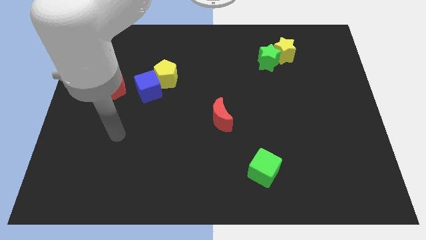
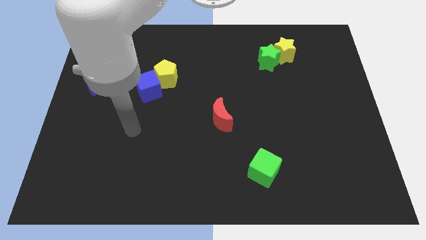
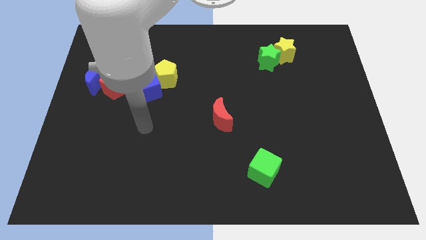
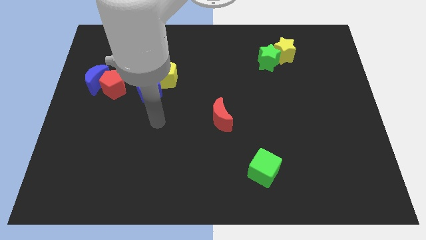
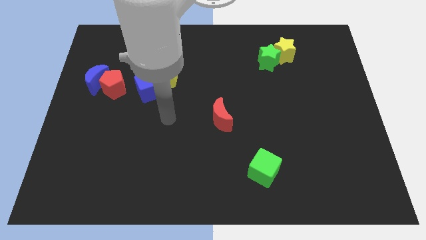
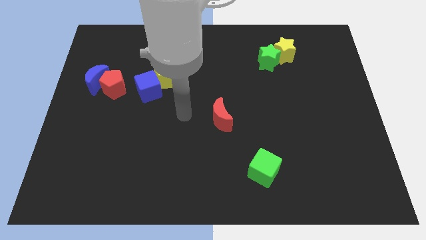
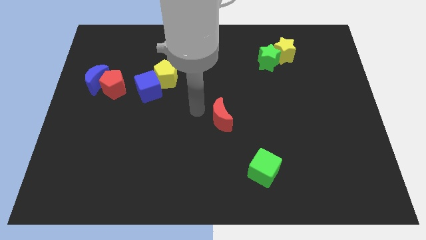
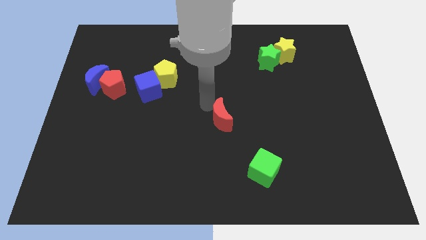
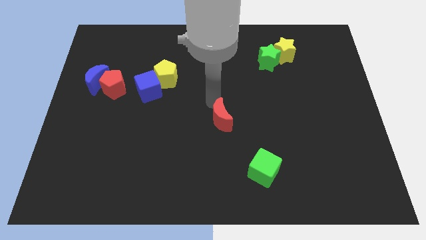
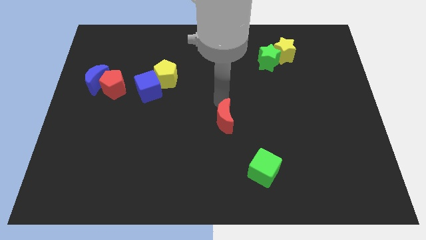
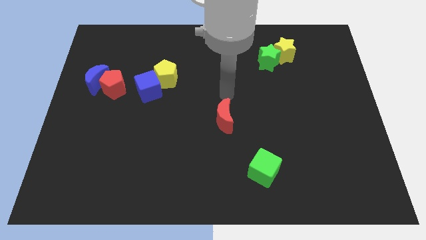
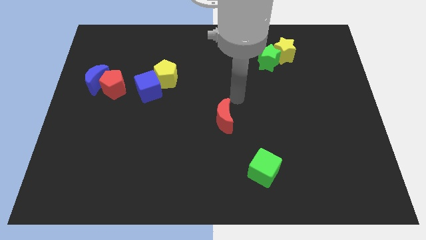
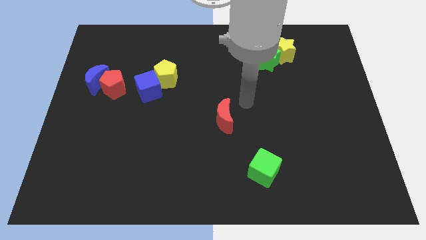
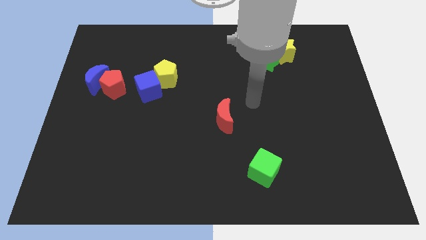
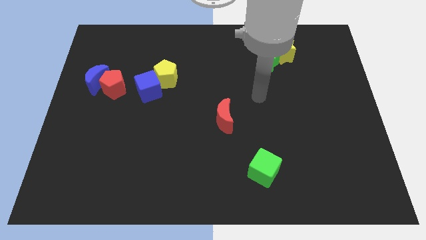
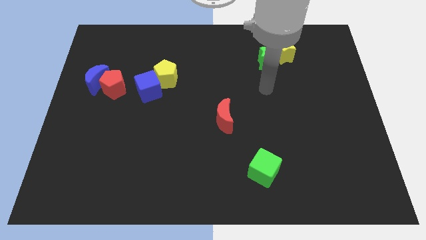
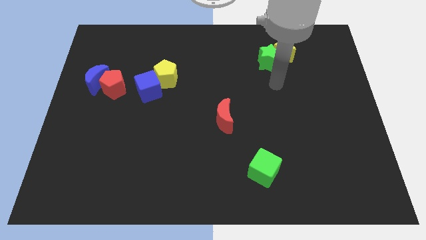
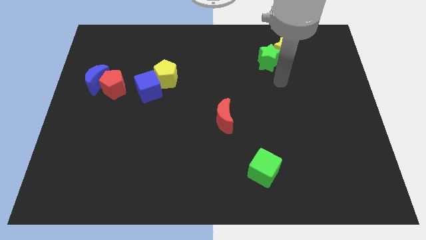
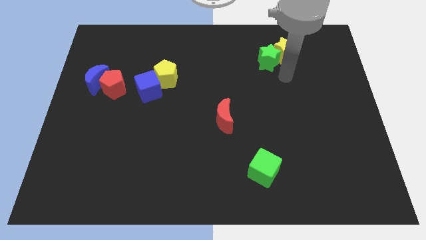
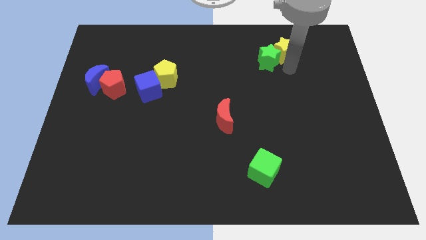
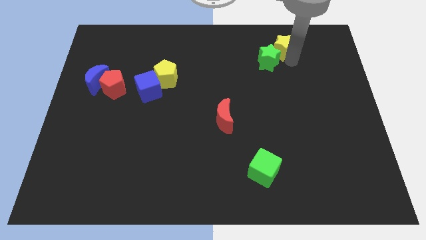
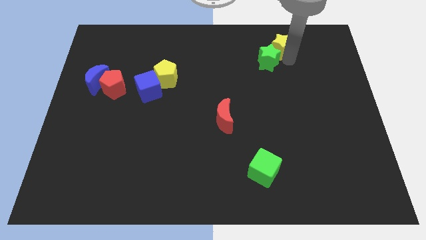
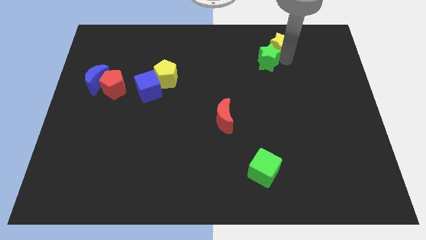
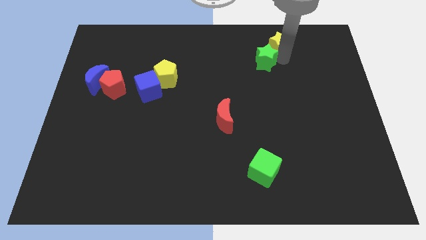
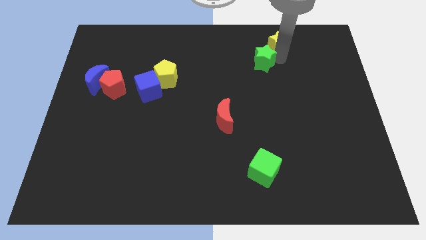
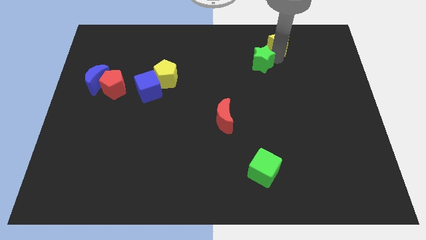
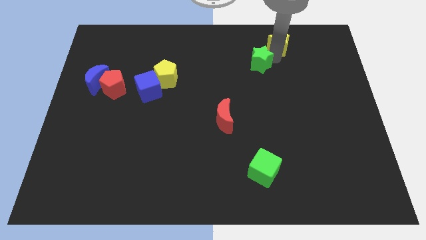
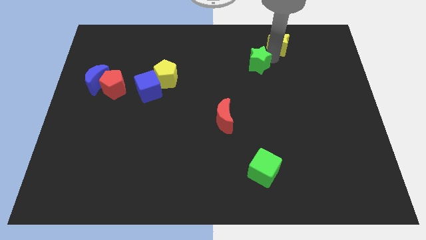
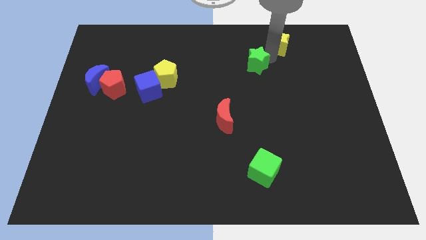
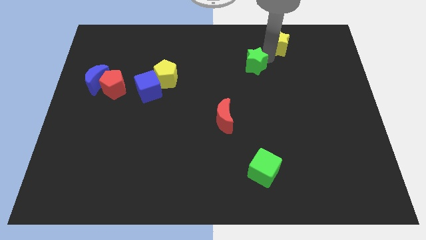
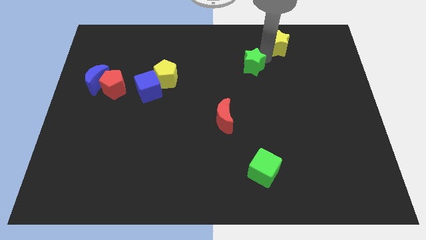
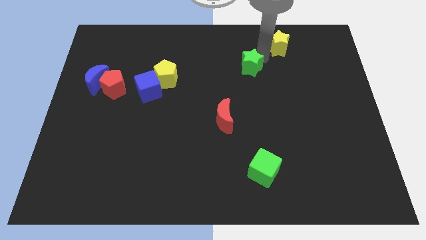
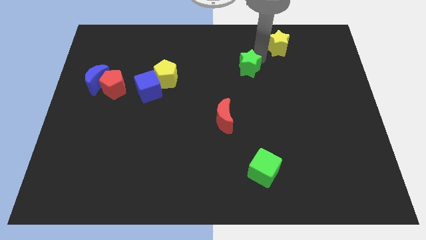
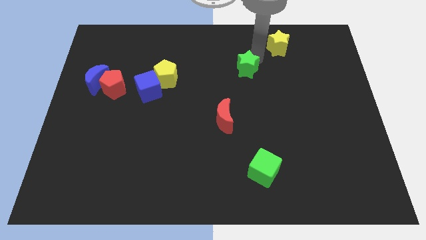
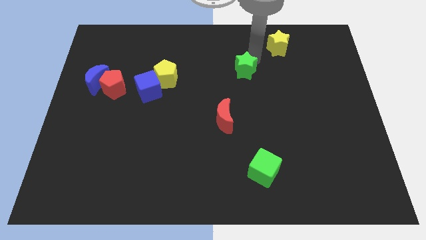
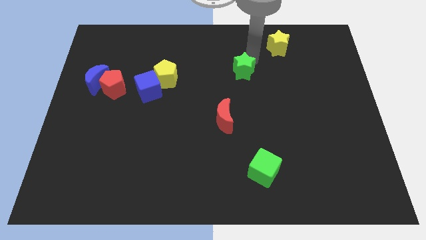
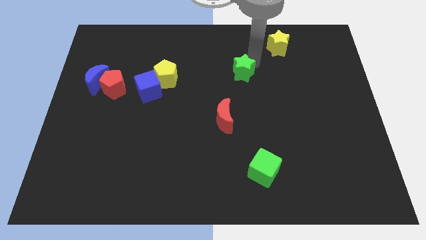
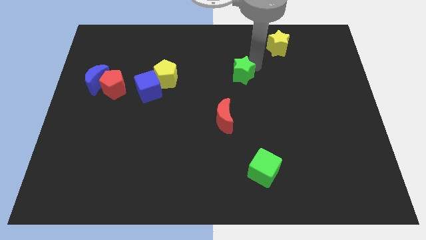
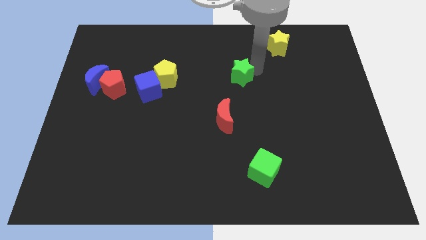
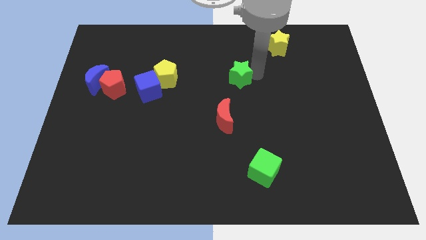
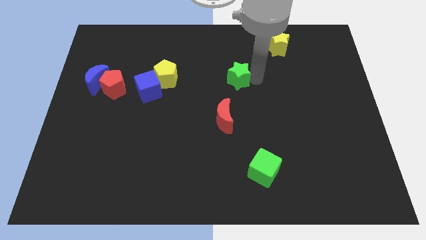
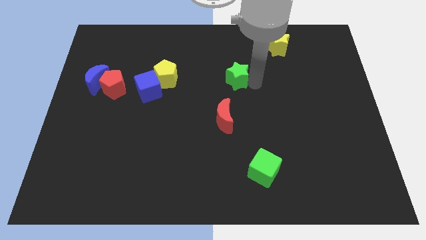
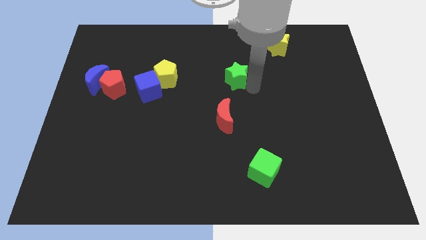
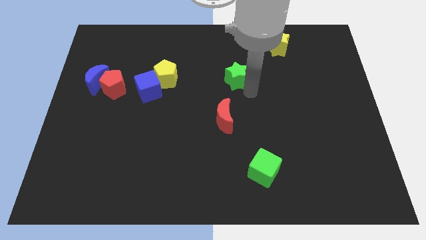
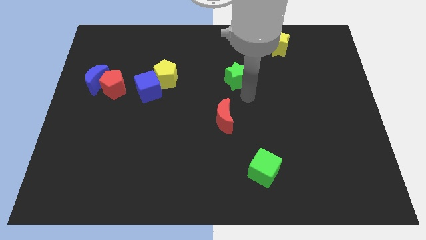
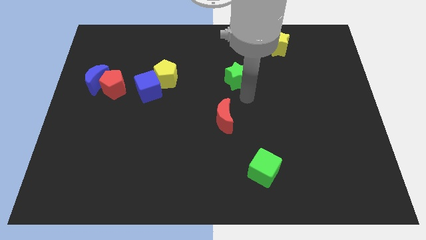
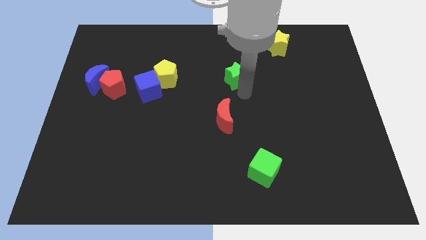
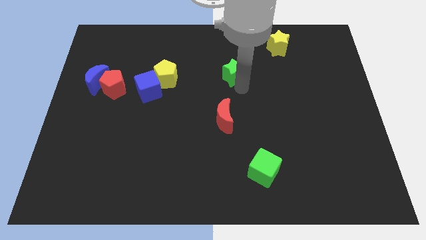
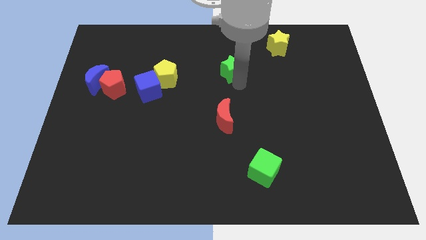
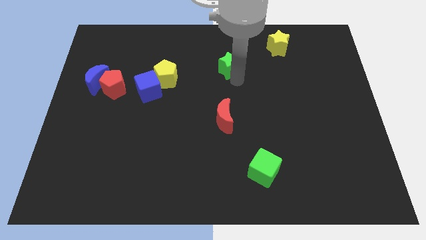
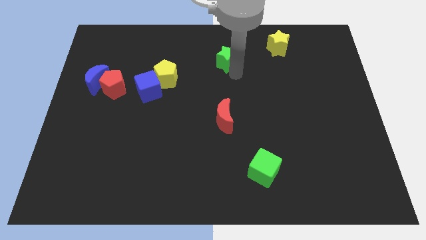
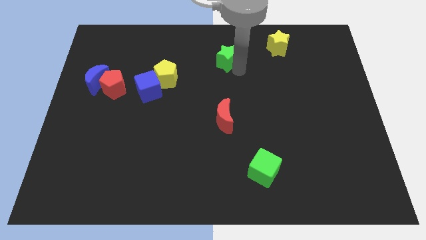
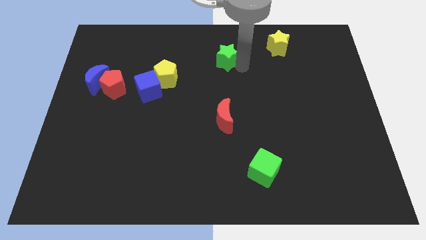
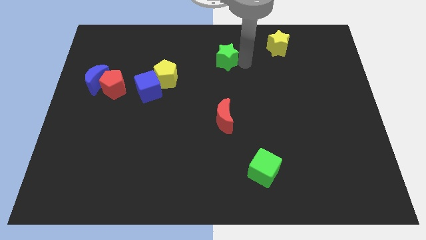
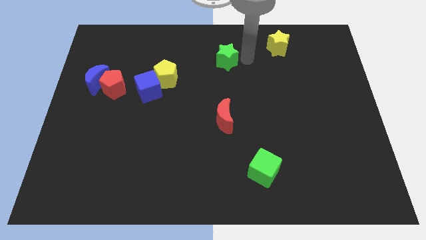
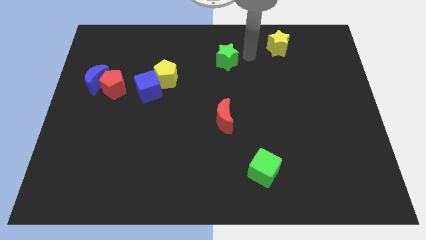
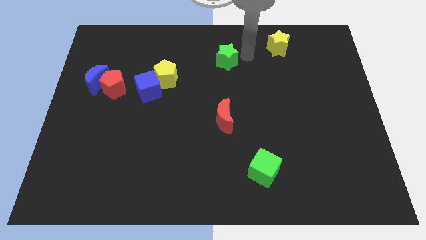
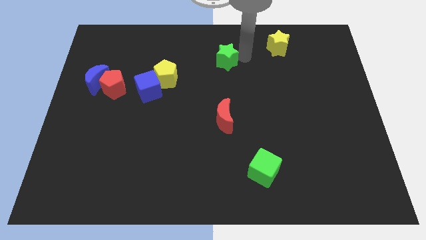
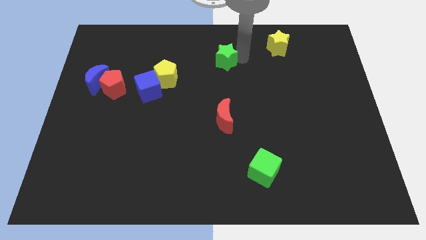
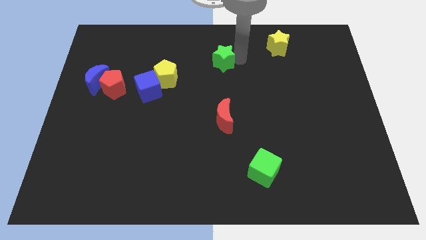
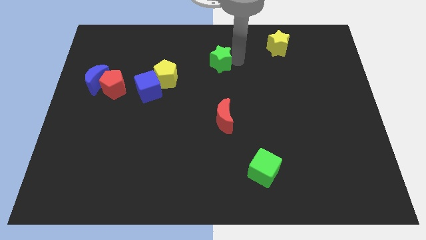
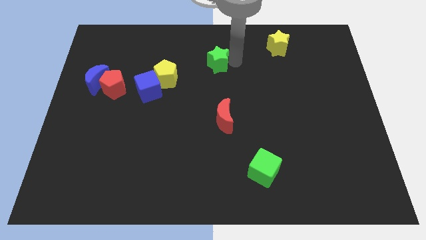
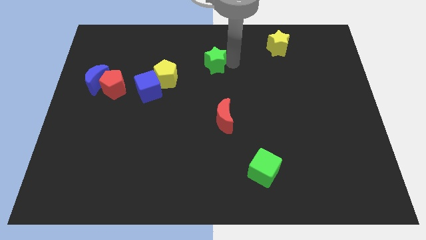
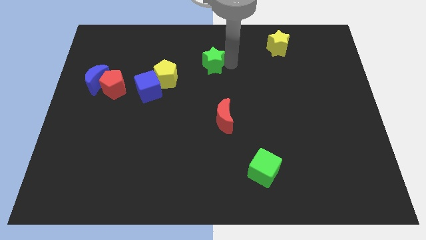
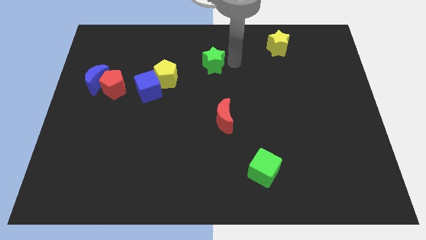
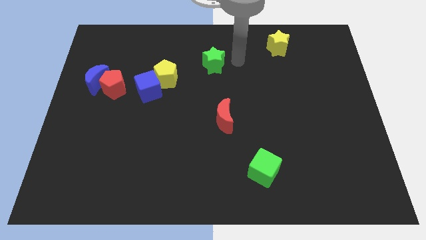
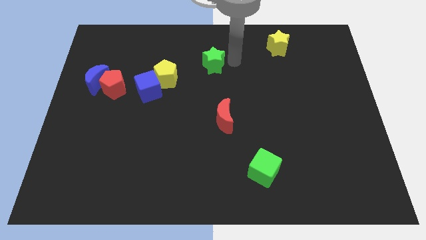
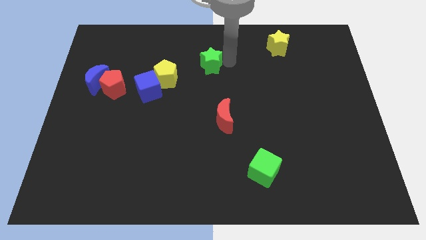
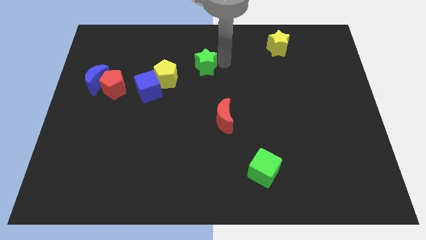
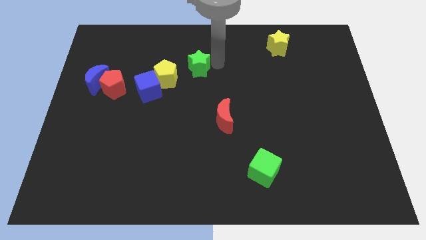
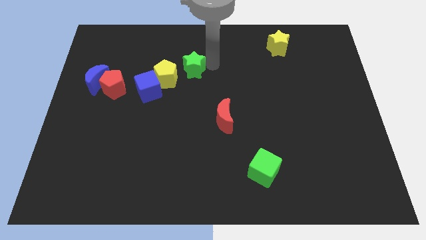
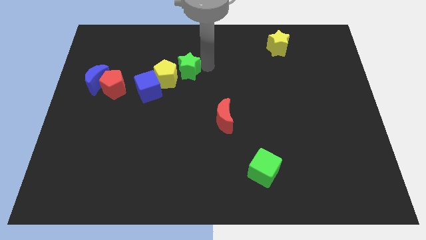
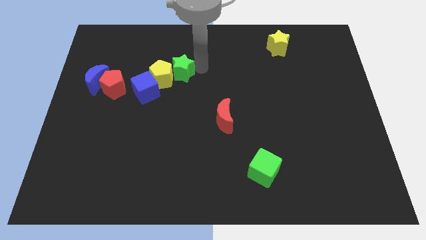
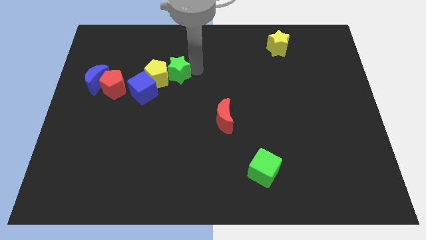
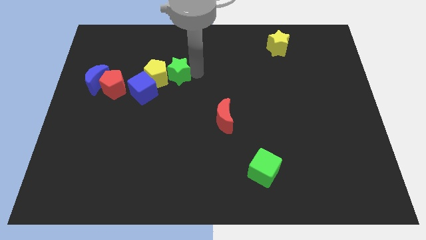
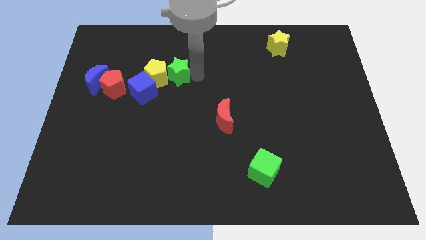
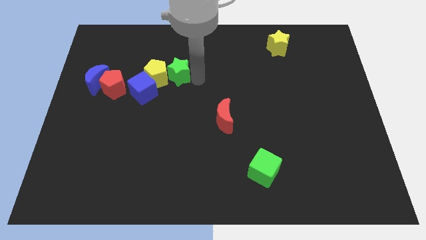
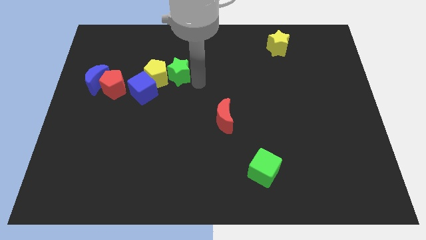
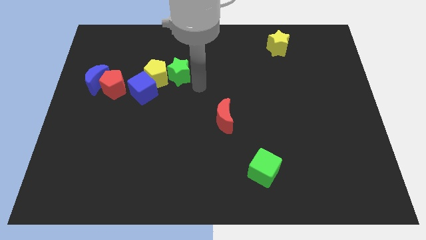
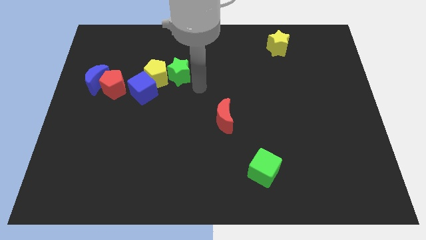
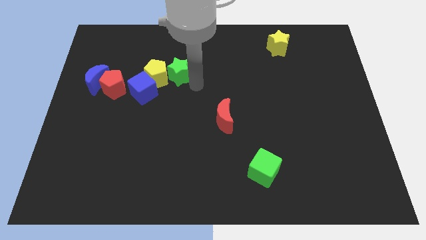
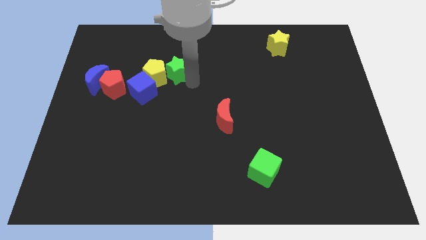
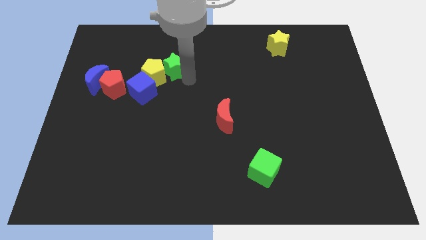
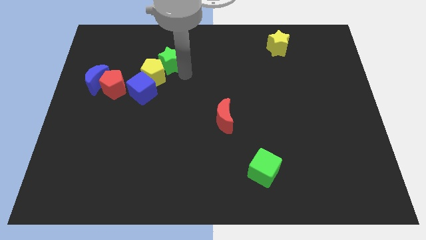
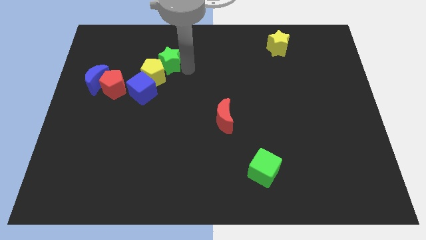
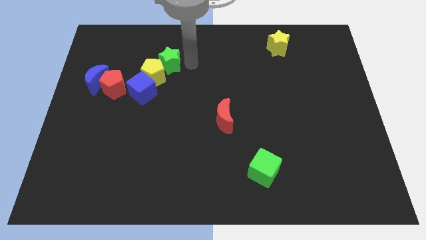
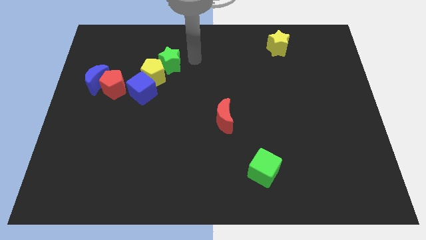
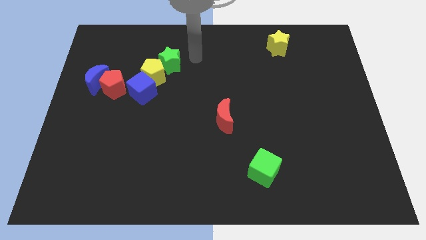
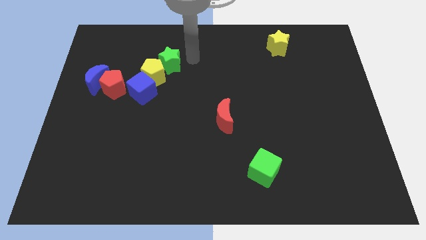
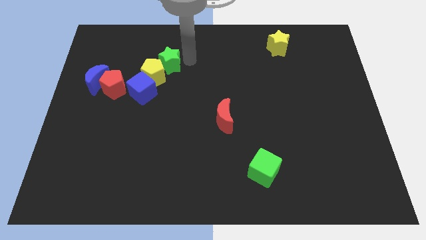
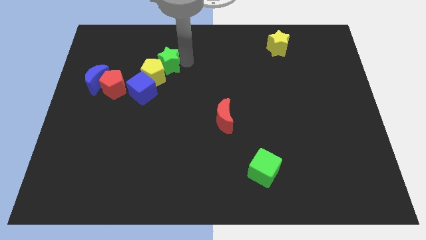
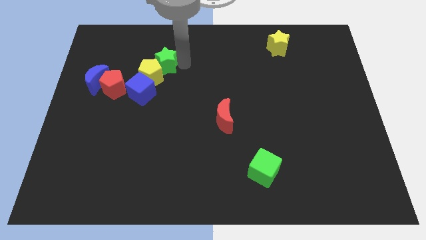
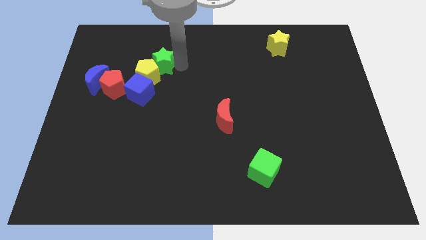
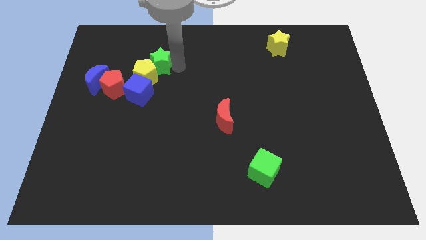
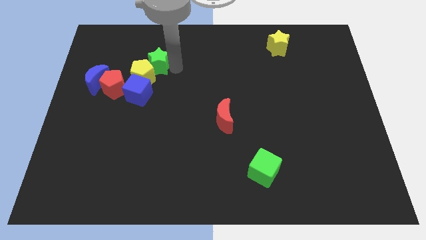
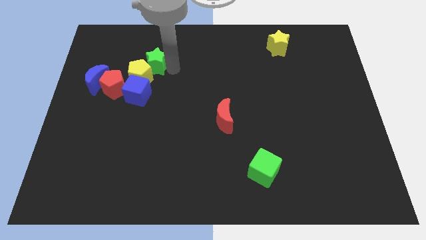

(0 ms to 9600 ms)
slide the green star diagonally up and to the right of the red pentagon
